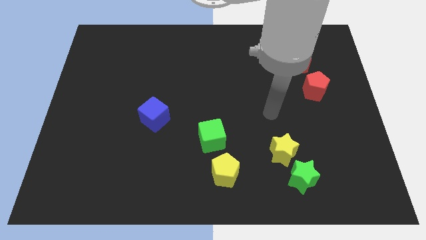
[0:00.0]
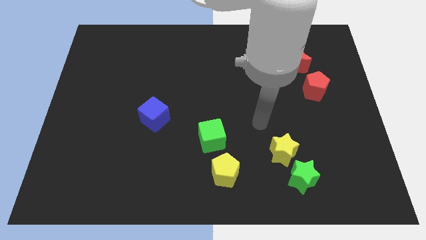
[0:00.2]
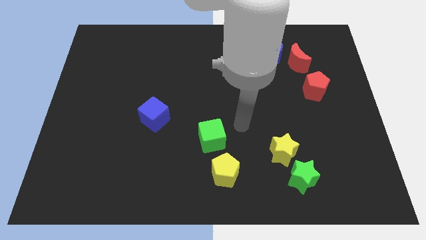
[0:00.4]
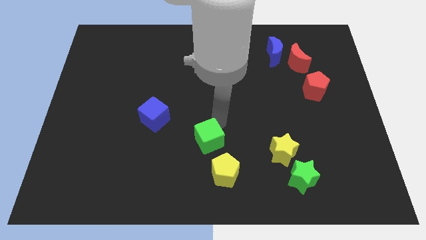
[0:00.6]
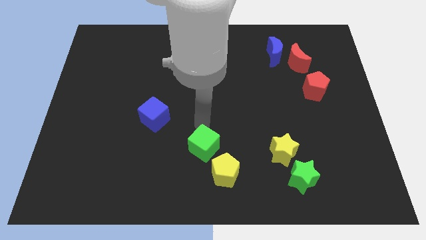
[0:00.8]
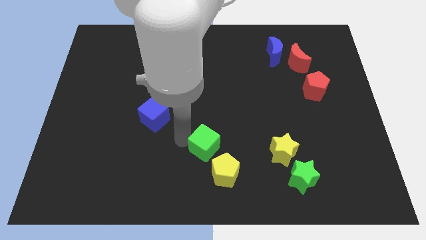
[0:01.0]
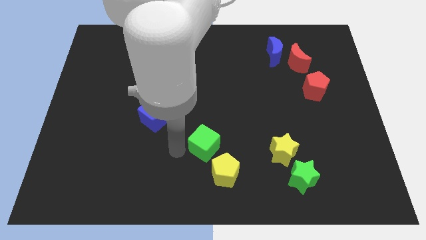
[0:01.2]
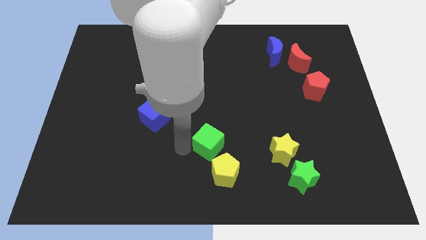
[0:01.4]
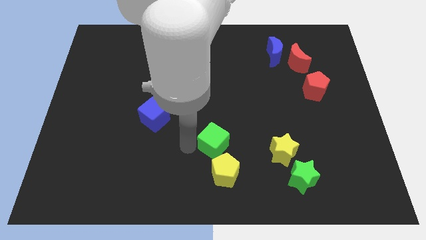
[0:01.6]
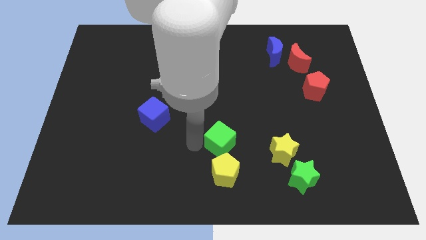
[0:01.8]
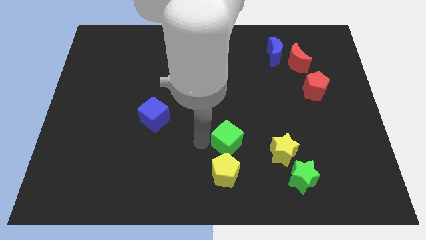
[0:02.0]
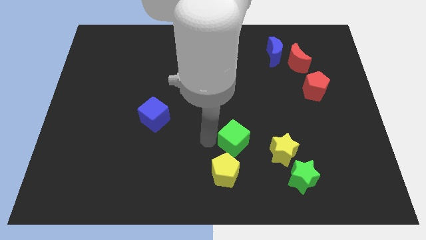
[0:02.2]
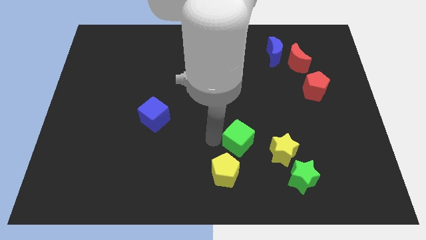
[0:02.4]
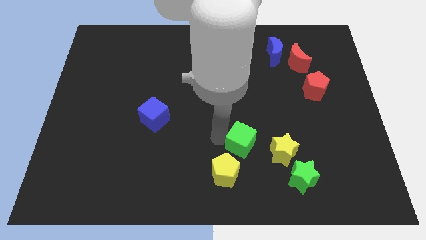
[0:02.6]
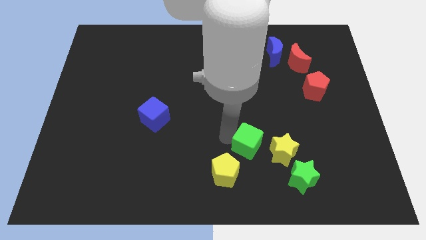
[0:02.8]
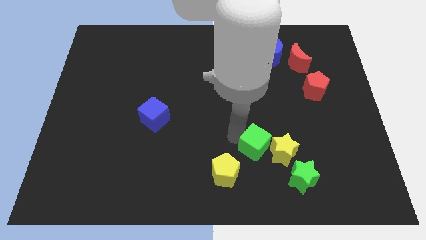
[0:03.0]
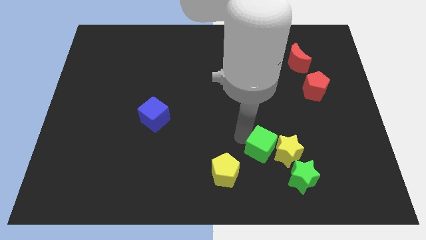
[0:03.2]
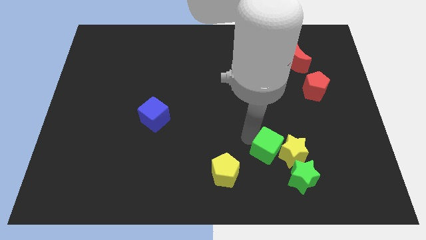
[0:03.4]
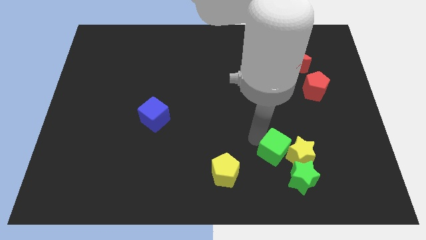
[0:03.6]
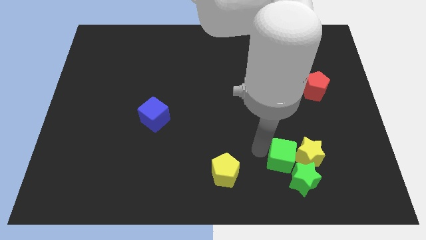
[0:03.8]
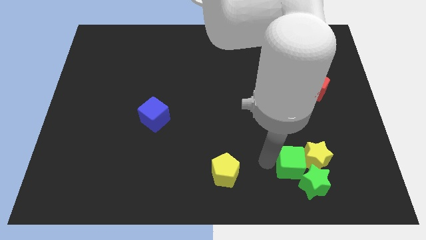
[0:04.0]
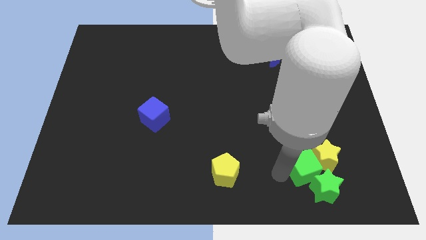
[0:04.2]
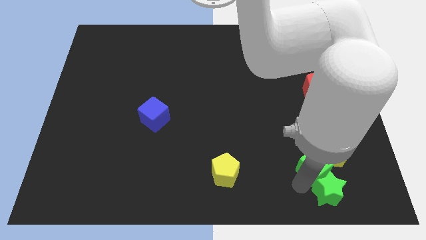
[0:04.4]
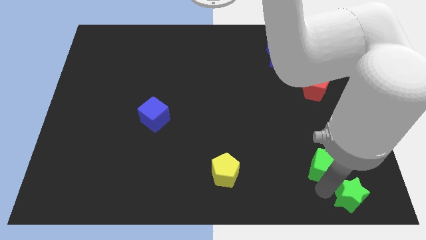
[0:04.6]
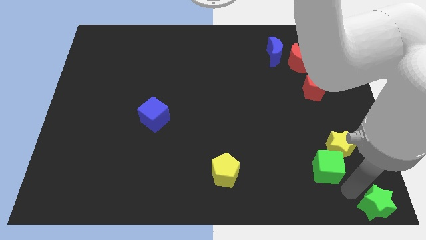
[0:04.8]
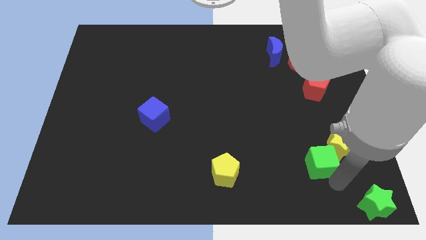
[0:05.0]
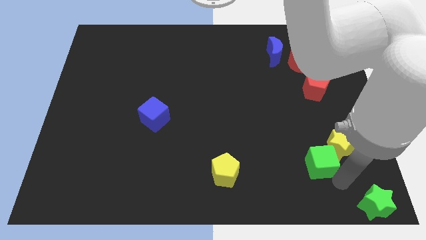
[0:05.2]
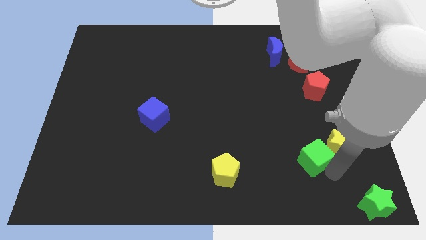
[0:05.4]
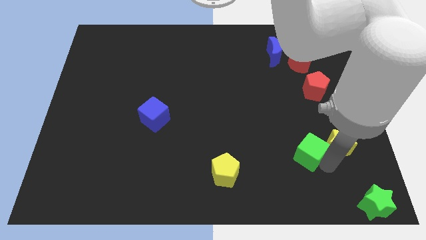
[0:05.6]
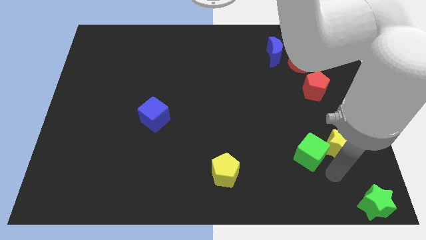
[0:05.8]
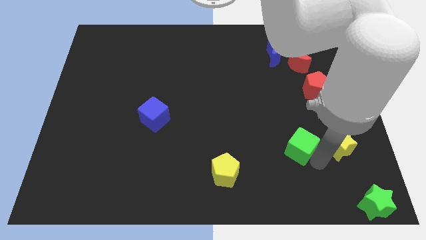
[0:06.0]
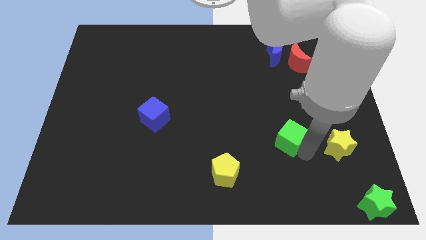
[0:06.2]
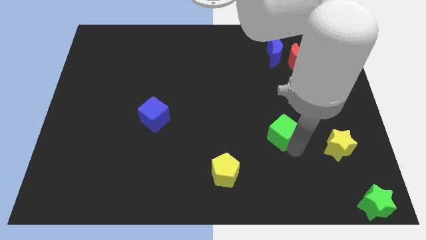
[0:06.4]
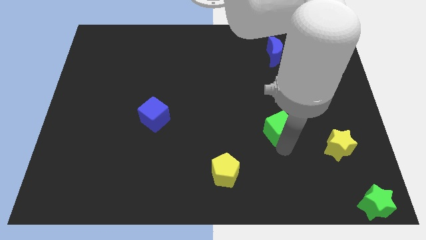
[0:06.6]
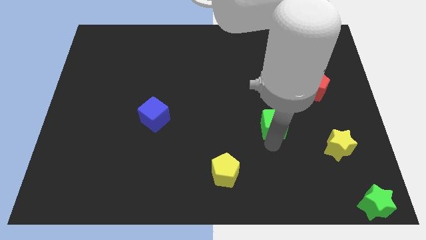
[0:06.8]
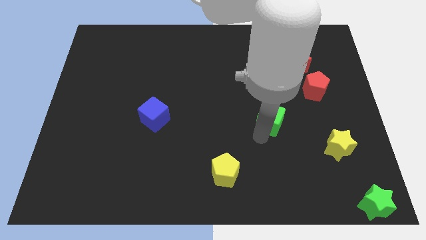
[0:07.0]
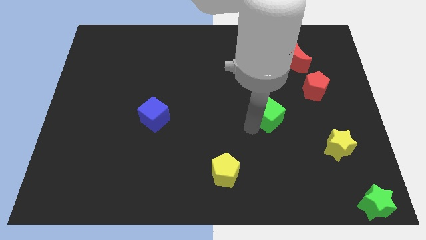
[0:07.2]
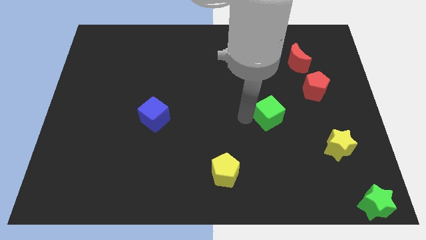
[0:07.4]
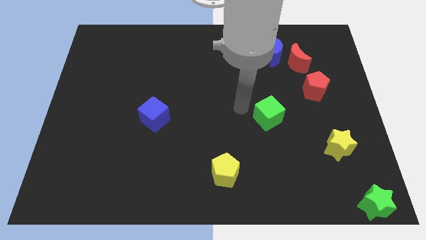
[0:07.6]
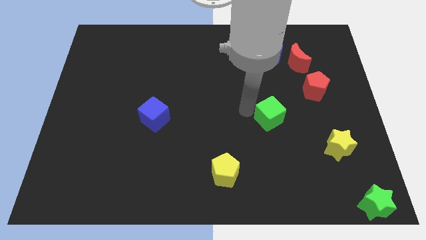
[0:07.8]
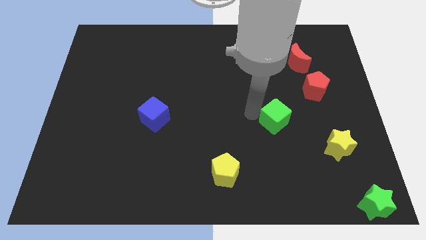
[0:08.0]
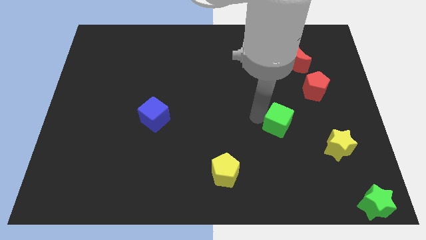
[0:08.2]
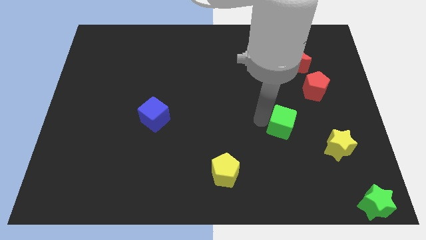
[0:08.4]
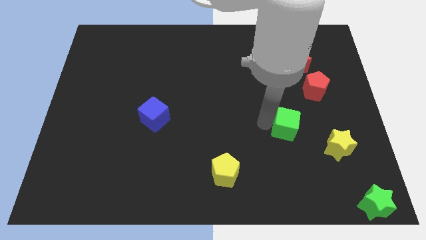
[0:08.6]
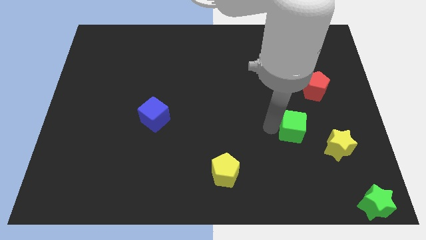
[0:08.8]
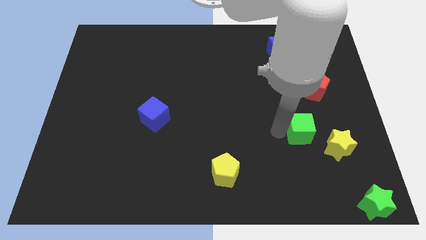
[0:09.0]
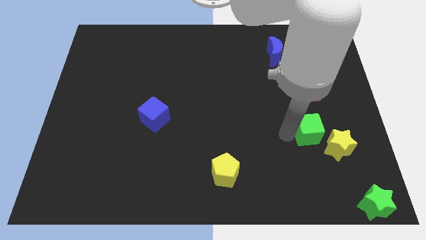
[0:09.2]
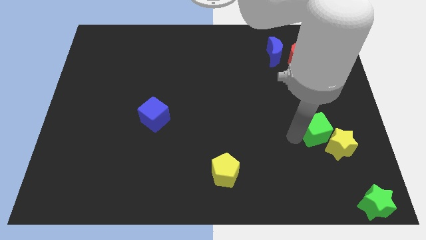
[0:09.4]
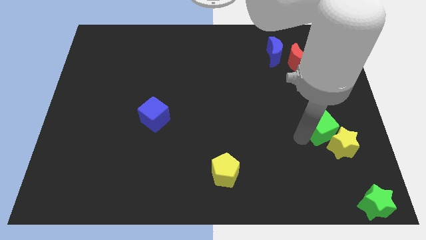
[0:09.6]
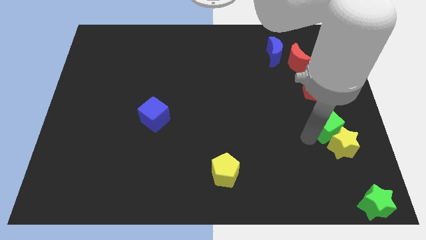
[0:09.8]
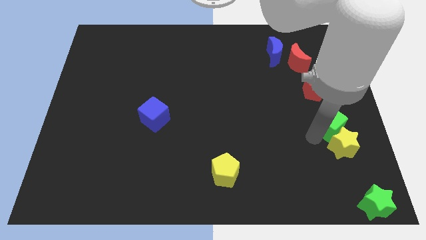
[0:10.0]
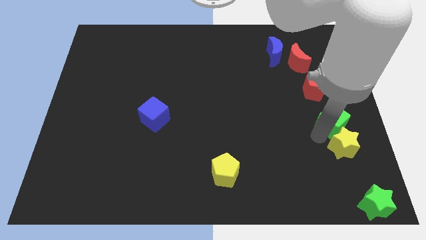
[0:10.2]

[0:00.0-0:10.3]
push the green cube to the right side of the board

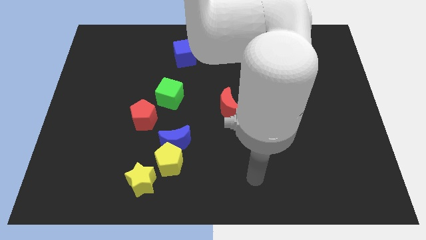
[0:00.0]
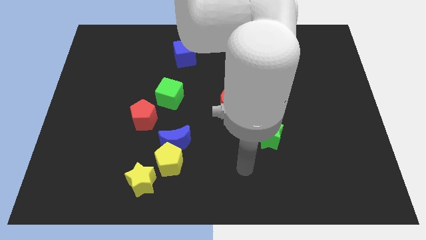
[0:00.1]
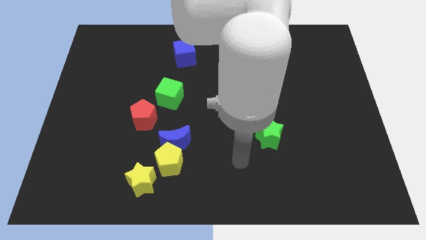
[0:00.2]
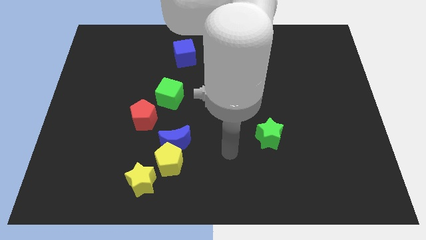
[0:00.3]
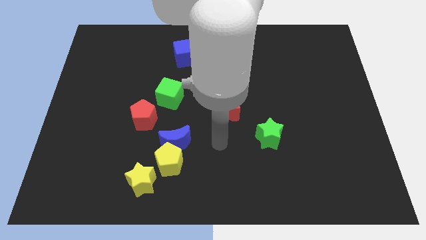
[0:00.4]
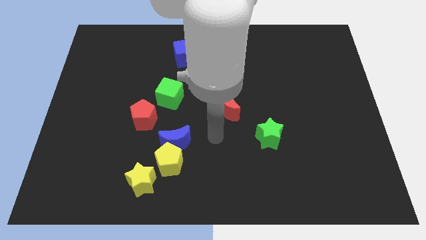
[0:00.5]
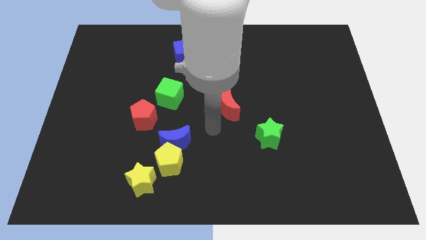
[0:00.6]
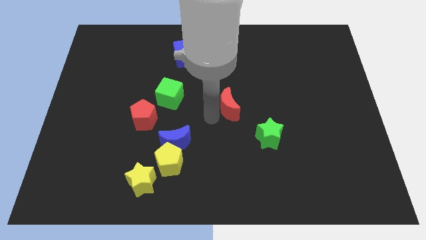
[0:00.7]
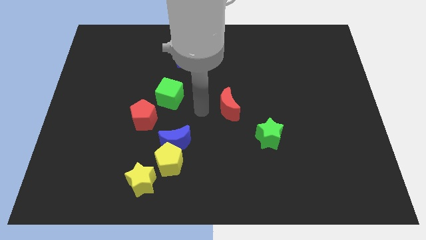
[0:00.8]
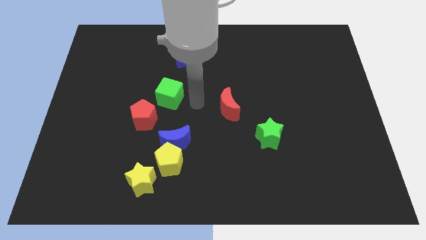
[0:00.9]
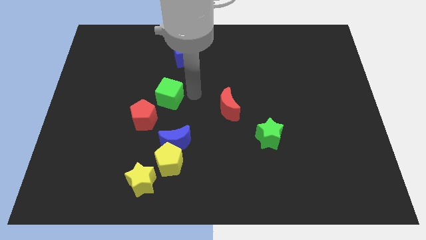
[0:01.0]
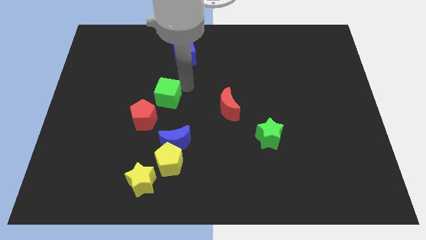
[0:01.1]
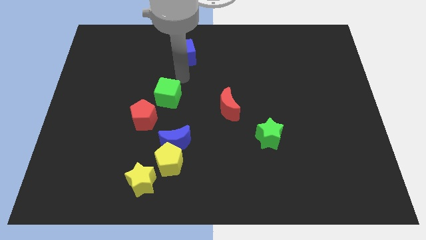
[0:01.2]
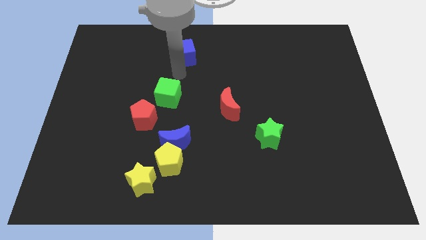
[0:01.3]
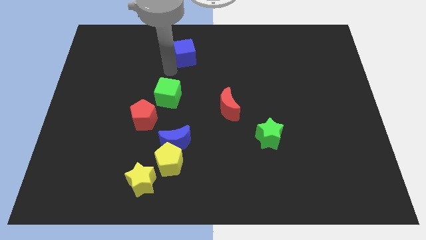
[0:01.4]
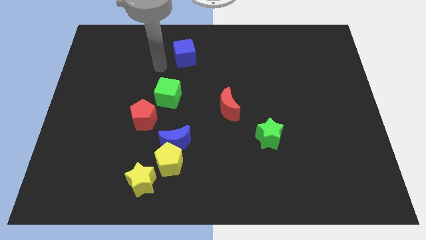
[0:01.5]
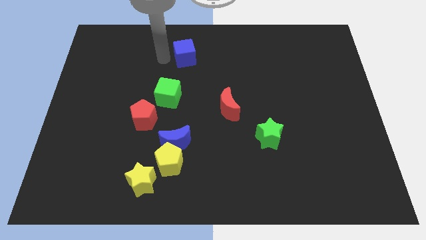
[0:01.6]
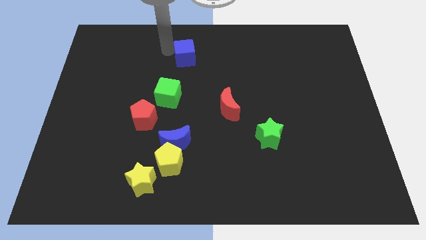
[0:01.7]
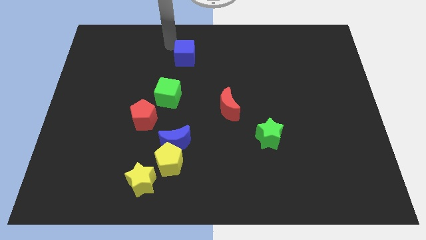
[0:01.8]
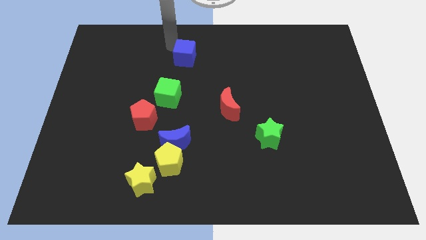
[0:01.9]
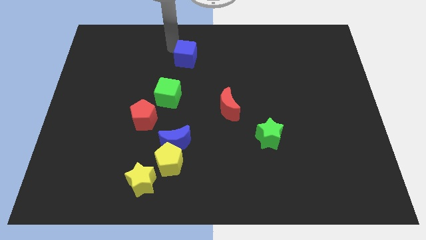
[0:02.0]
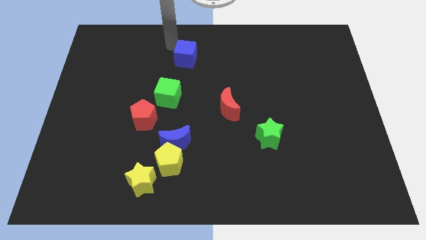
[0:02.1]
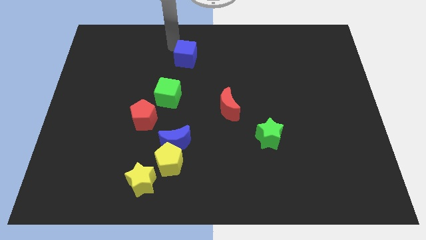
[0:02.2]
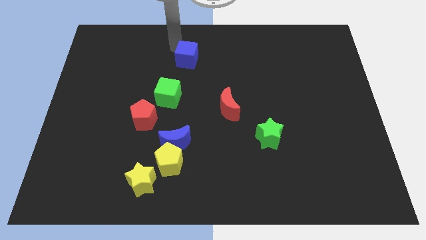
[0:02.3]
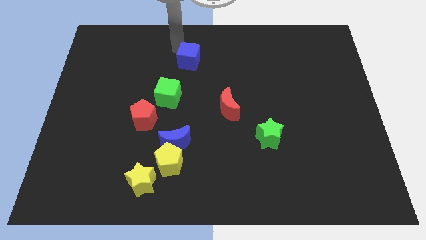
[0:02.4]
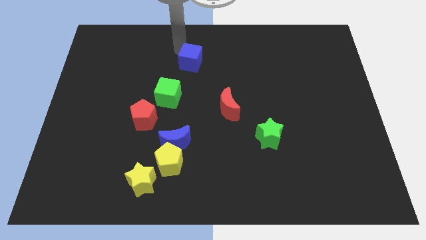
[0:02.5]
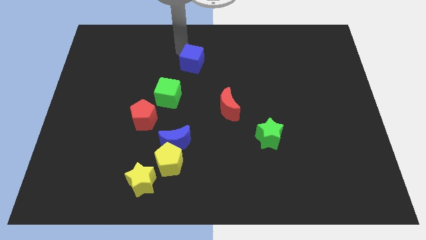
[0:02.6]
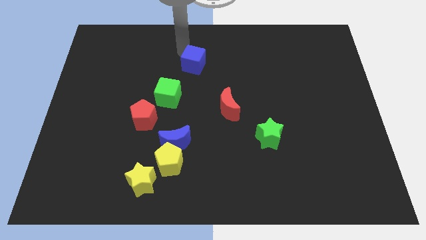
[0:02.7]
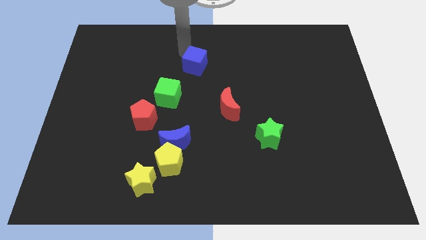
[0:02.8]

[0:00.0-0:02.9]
push the blue cube to the center of the board

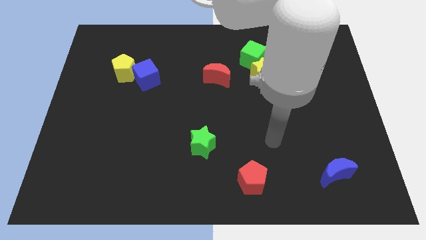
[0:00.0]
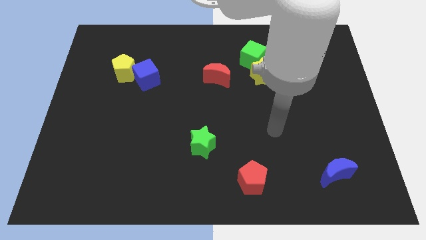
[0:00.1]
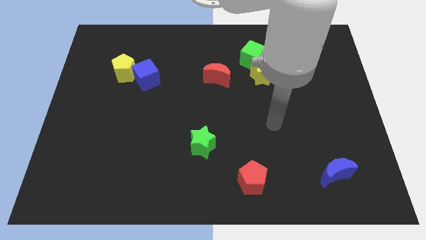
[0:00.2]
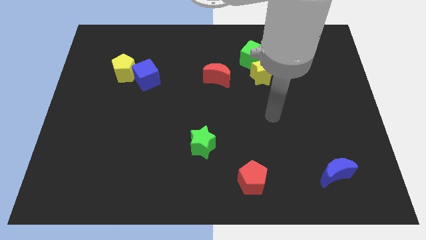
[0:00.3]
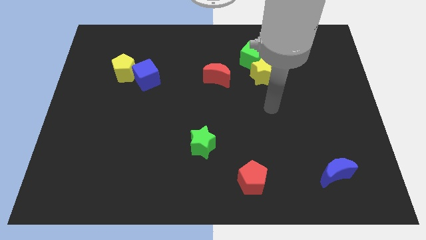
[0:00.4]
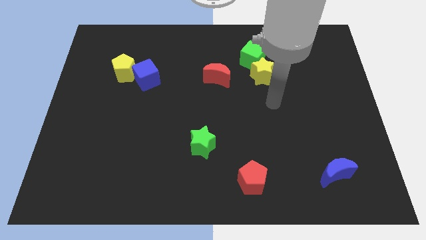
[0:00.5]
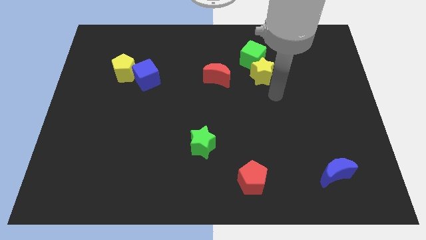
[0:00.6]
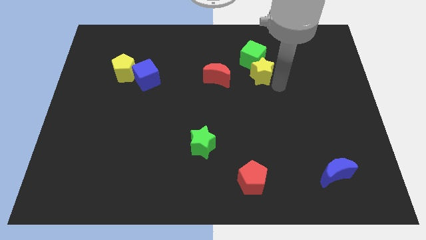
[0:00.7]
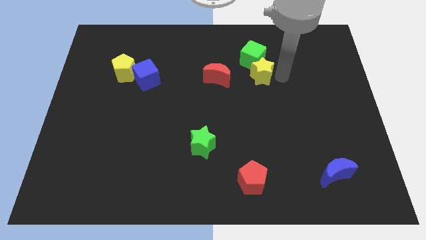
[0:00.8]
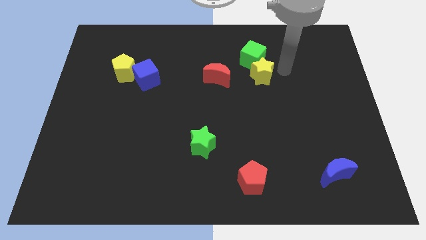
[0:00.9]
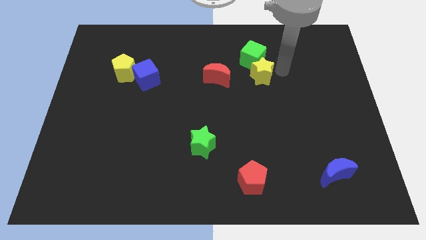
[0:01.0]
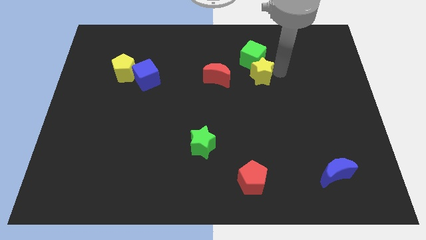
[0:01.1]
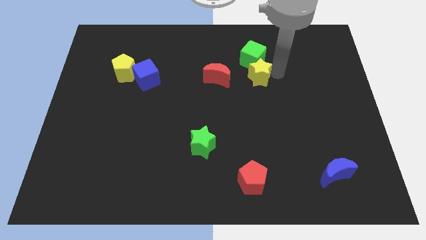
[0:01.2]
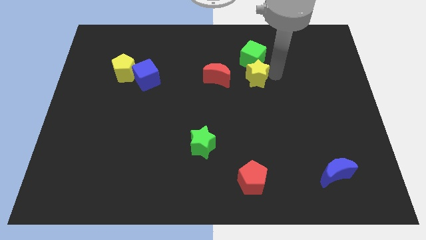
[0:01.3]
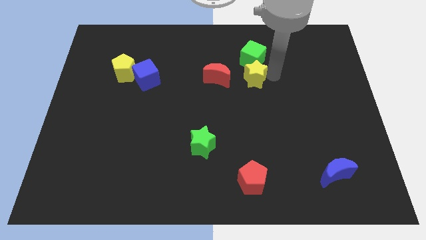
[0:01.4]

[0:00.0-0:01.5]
push the yellow star to the center
